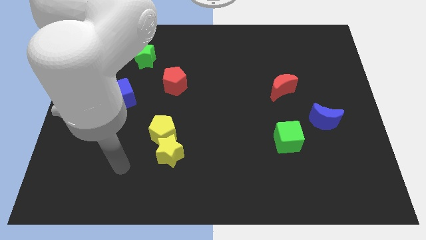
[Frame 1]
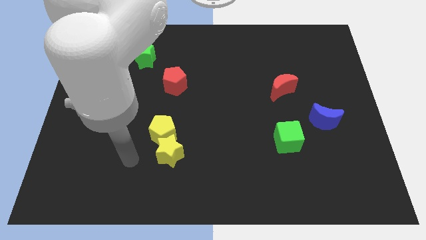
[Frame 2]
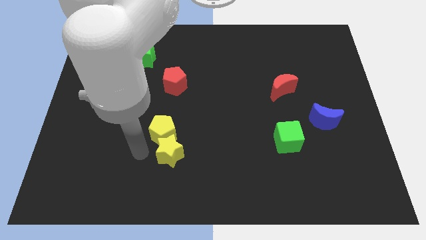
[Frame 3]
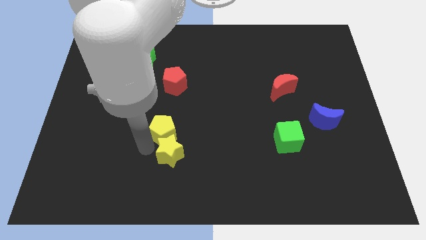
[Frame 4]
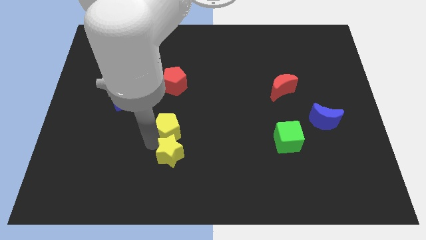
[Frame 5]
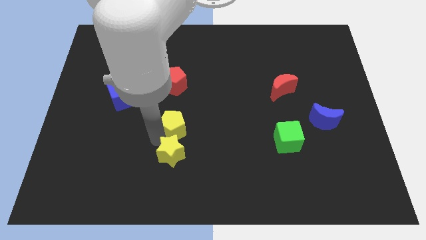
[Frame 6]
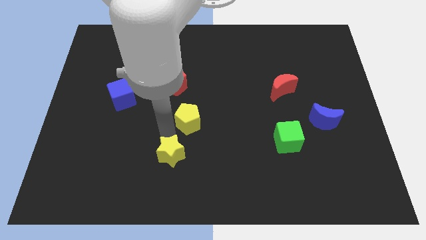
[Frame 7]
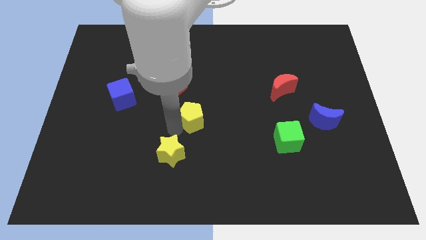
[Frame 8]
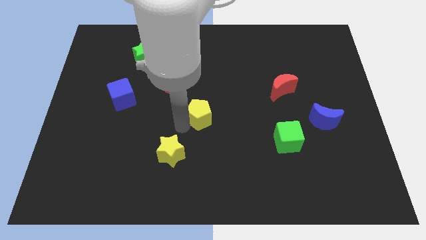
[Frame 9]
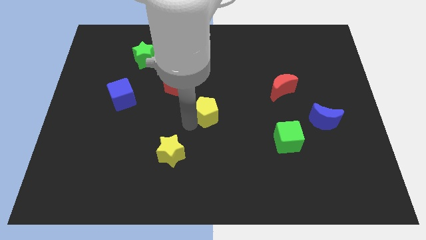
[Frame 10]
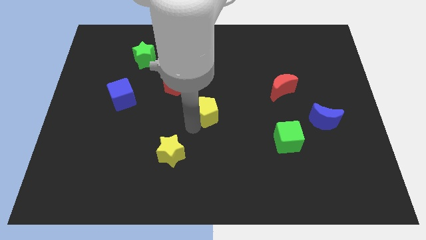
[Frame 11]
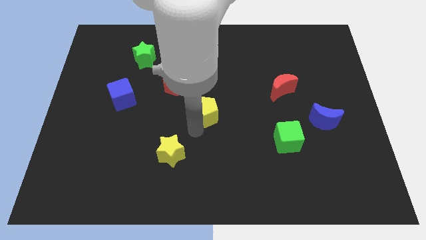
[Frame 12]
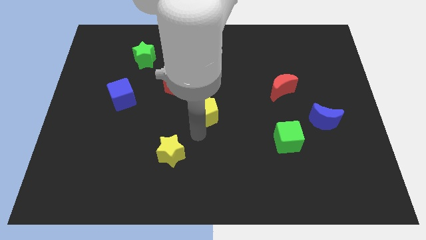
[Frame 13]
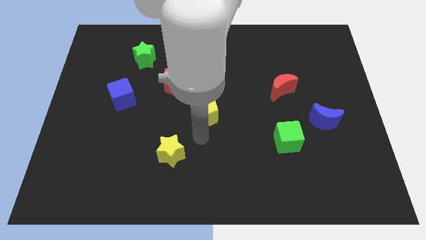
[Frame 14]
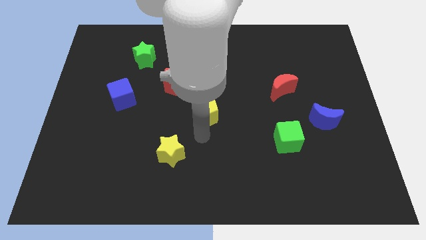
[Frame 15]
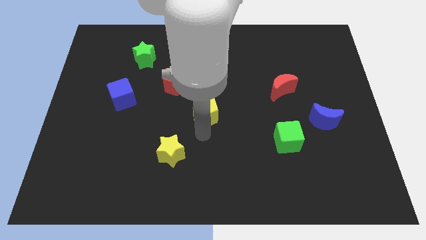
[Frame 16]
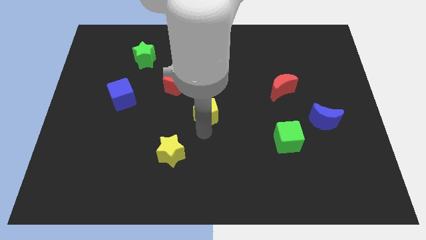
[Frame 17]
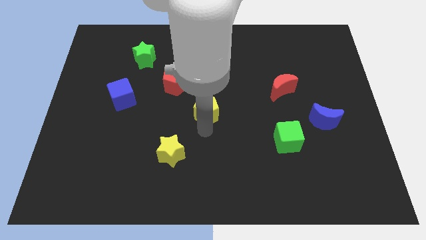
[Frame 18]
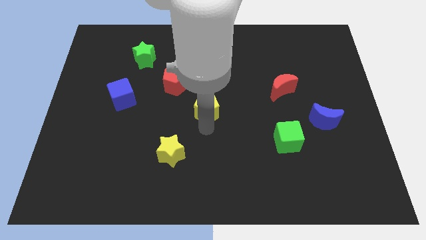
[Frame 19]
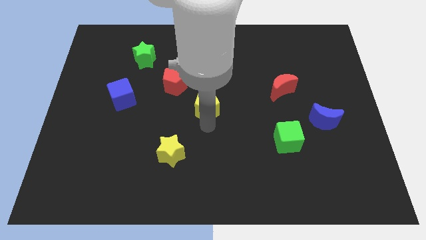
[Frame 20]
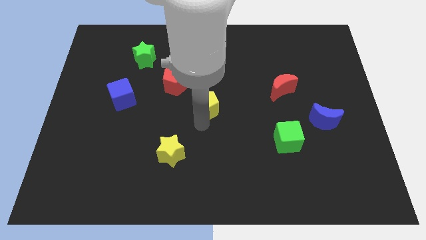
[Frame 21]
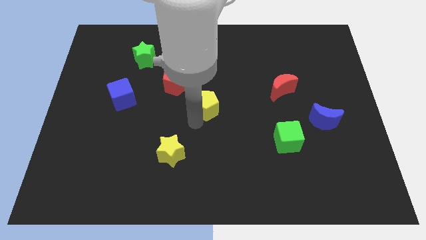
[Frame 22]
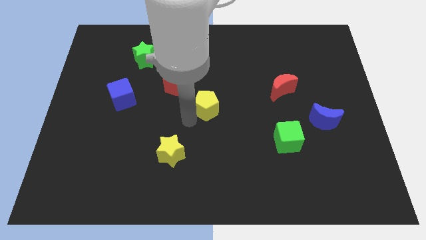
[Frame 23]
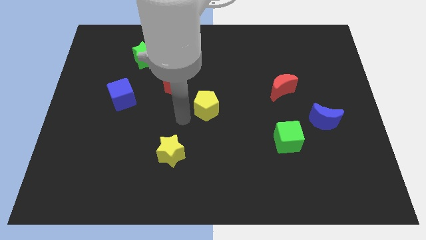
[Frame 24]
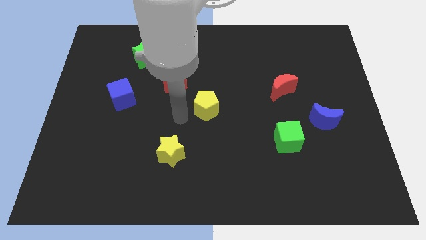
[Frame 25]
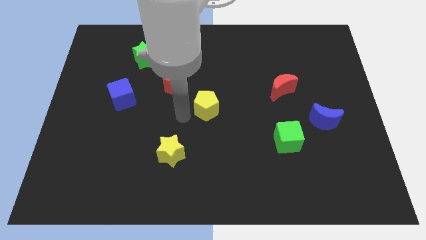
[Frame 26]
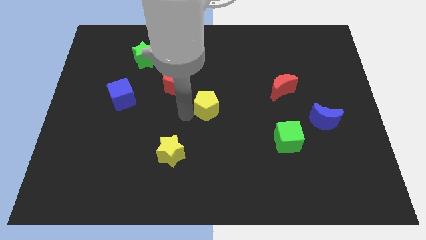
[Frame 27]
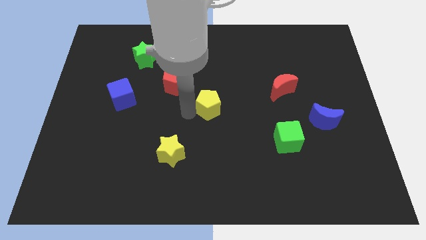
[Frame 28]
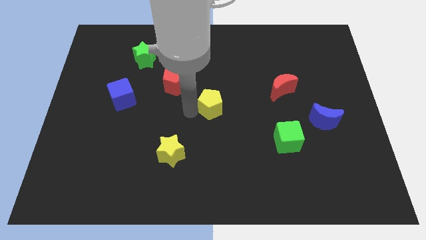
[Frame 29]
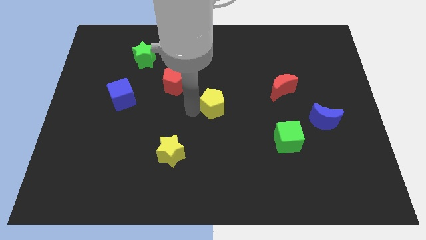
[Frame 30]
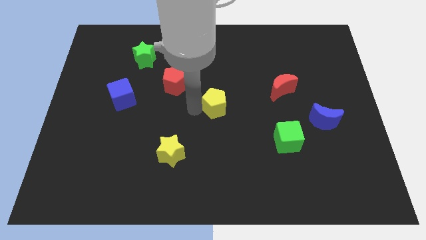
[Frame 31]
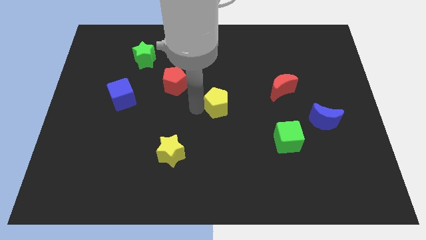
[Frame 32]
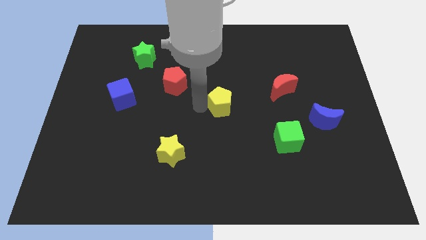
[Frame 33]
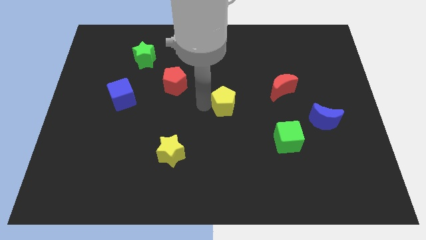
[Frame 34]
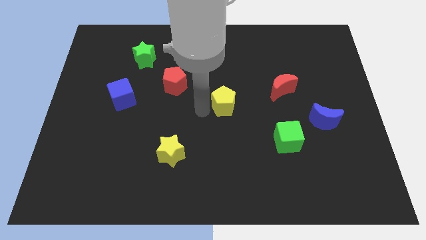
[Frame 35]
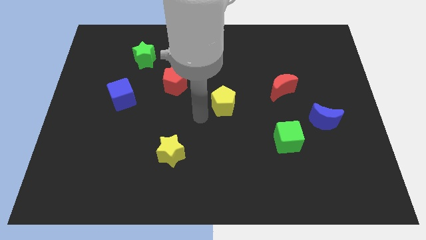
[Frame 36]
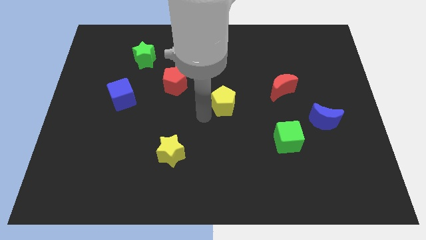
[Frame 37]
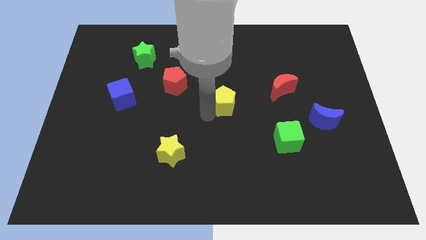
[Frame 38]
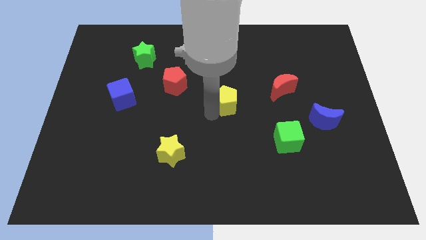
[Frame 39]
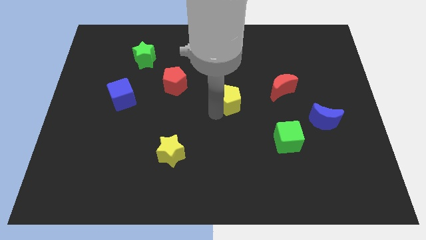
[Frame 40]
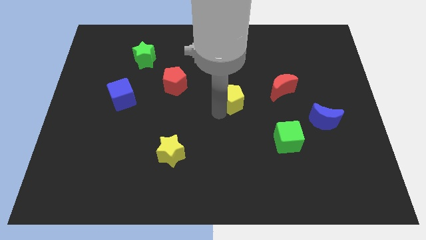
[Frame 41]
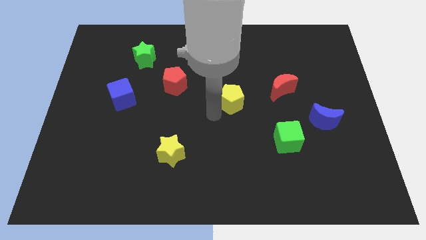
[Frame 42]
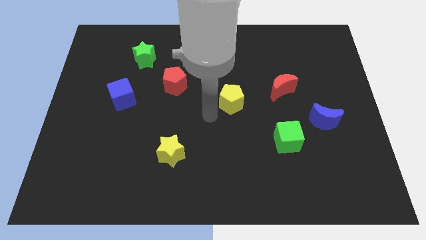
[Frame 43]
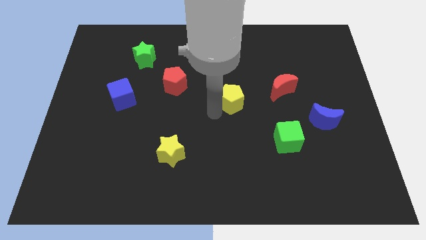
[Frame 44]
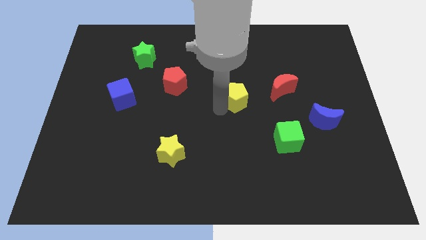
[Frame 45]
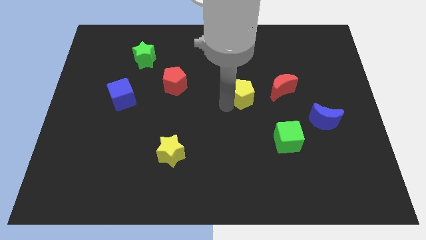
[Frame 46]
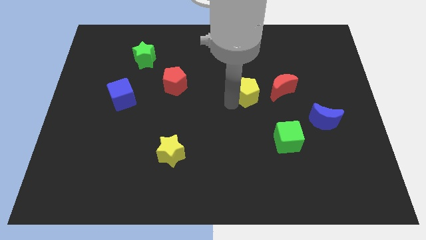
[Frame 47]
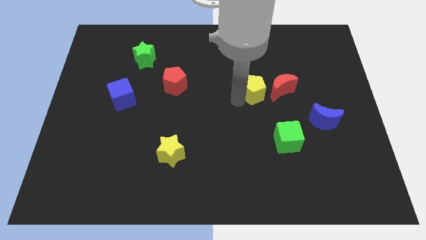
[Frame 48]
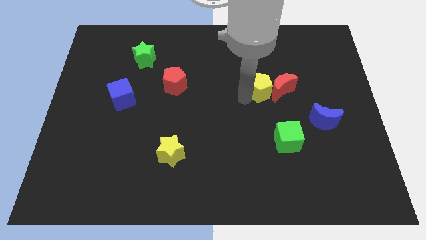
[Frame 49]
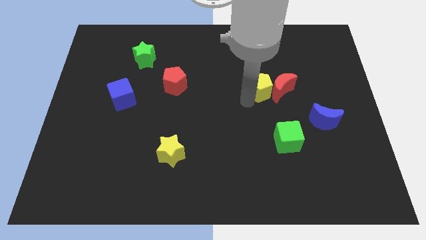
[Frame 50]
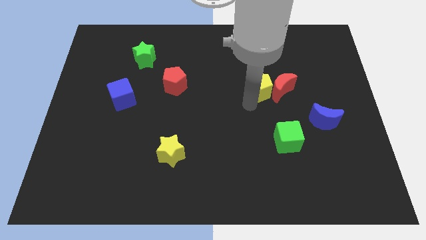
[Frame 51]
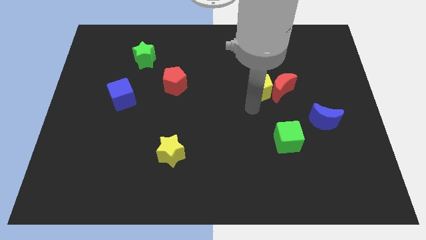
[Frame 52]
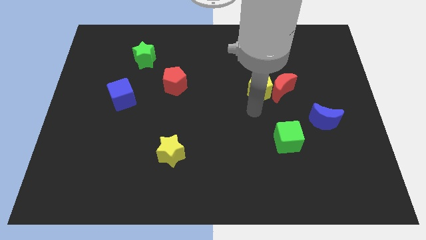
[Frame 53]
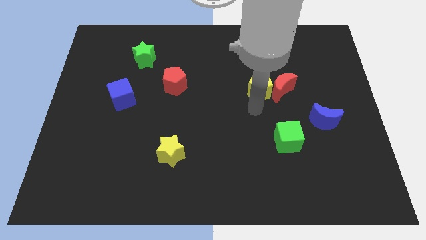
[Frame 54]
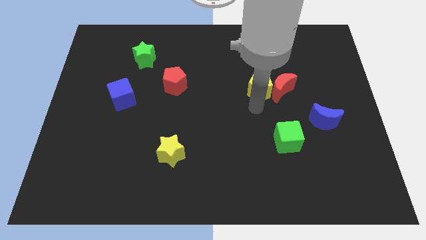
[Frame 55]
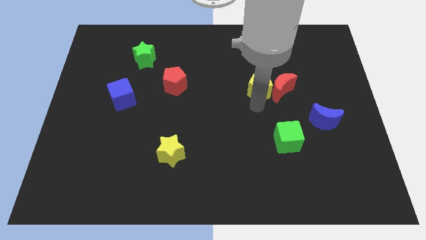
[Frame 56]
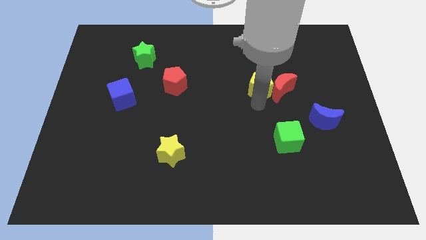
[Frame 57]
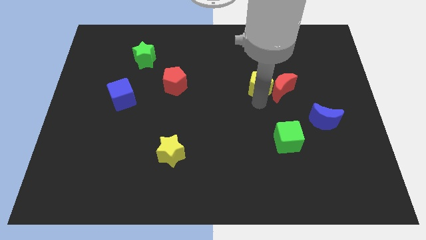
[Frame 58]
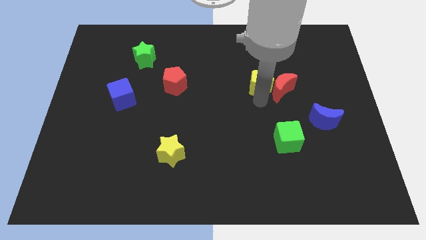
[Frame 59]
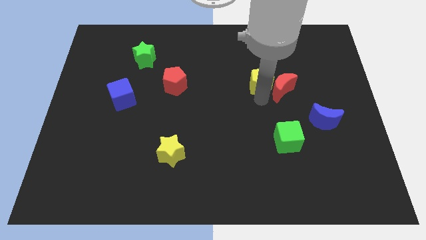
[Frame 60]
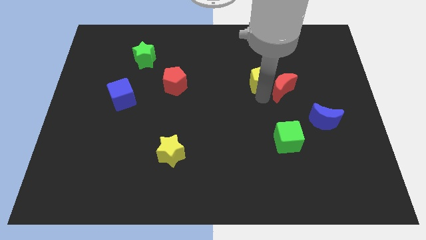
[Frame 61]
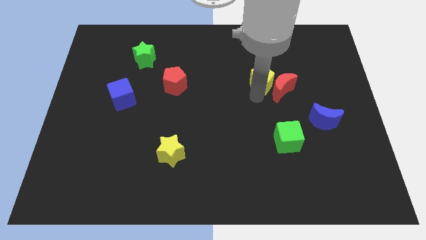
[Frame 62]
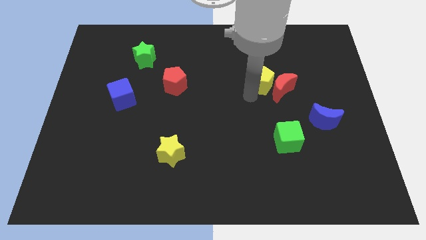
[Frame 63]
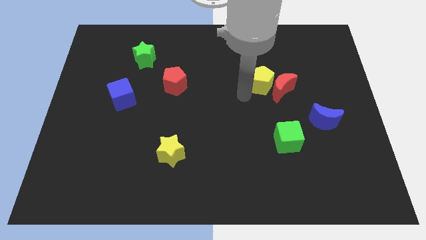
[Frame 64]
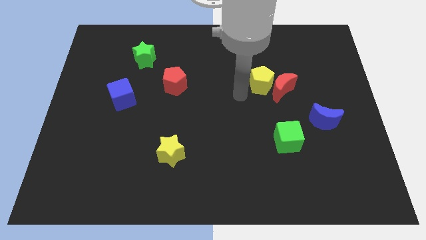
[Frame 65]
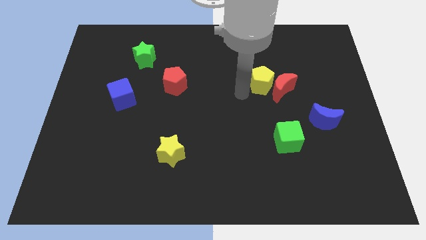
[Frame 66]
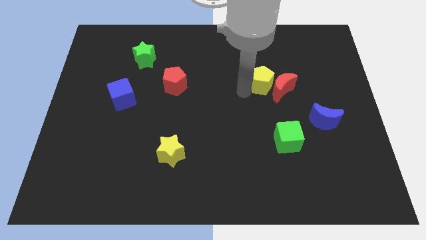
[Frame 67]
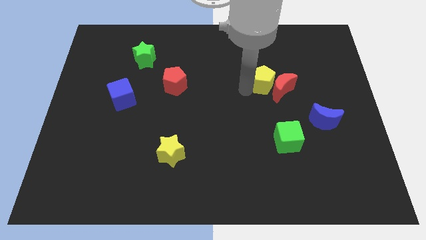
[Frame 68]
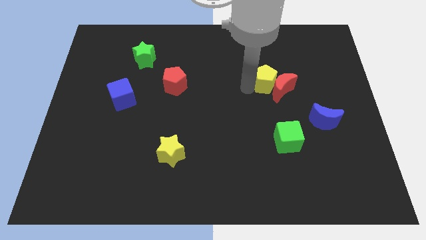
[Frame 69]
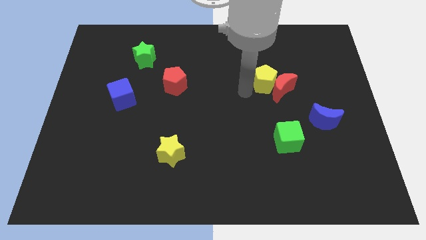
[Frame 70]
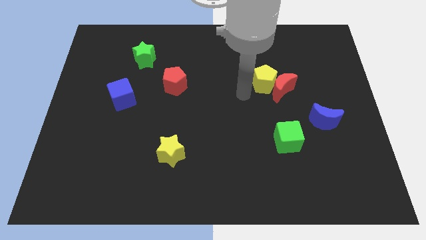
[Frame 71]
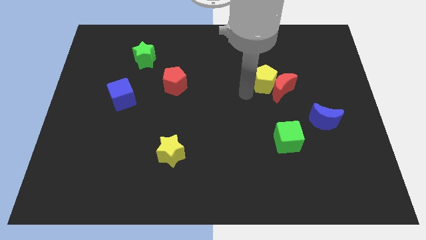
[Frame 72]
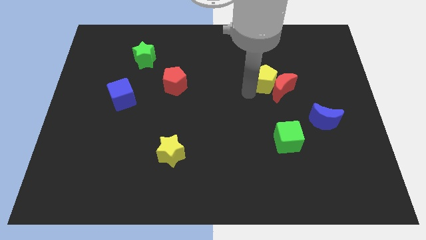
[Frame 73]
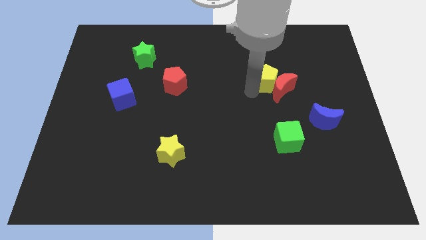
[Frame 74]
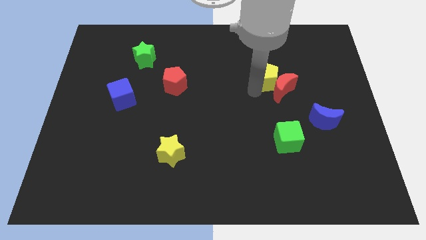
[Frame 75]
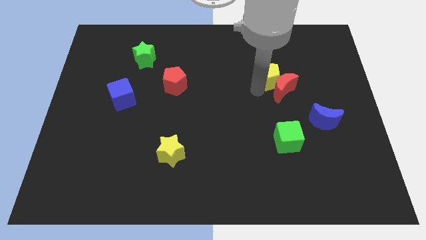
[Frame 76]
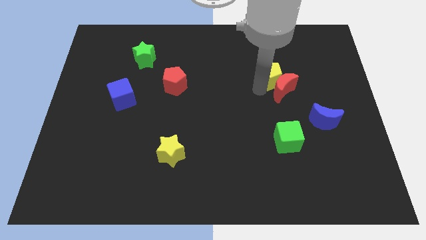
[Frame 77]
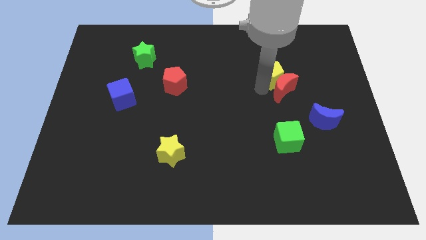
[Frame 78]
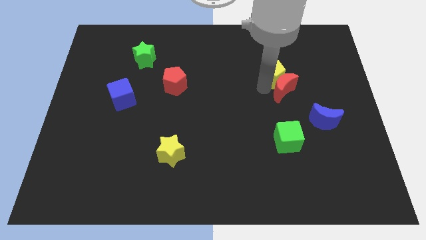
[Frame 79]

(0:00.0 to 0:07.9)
push the yellow pentagon to the top right of the red moon
